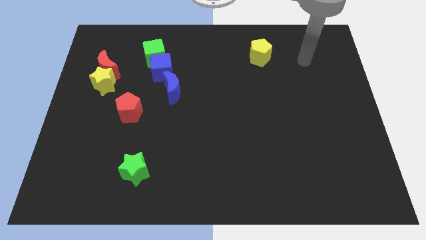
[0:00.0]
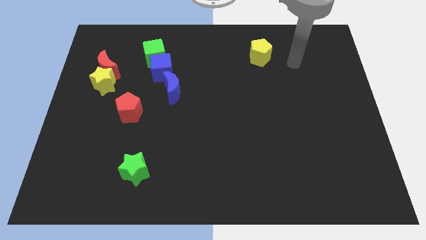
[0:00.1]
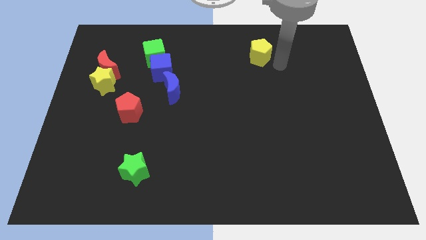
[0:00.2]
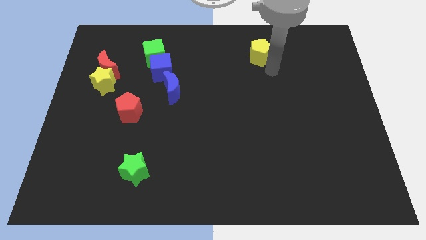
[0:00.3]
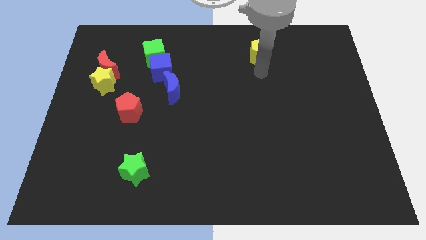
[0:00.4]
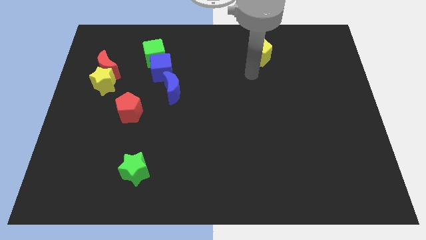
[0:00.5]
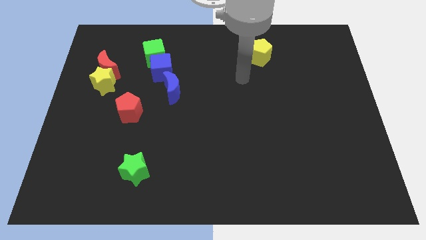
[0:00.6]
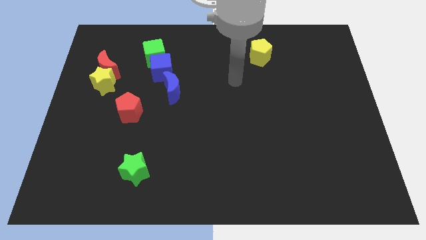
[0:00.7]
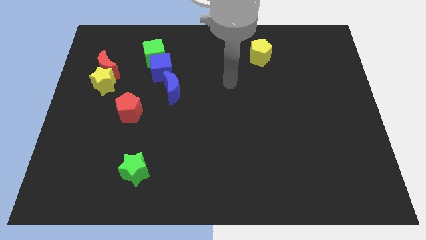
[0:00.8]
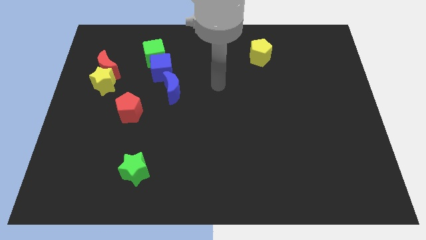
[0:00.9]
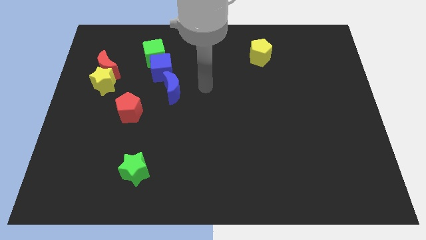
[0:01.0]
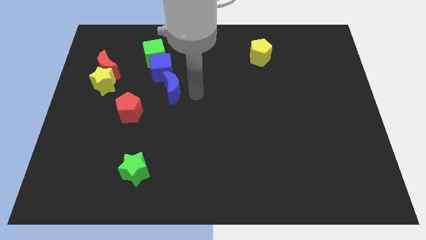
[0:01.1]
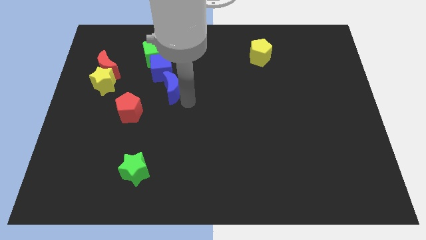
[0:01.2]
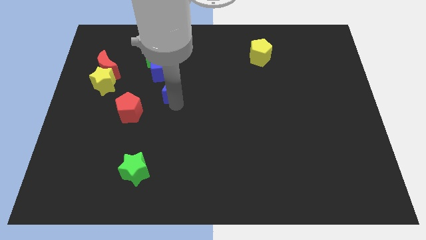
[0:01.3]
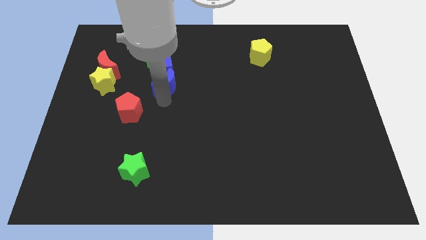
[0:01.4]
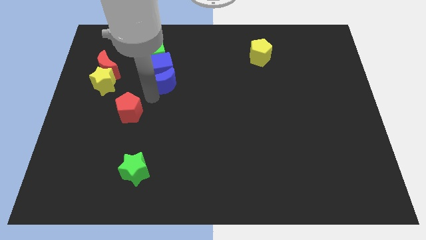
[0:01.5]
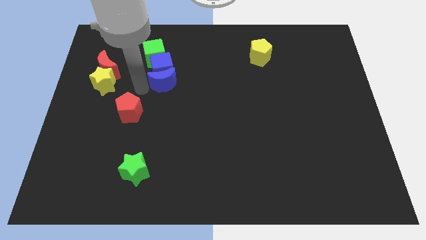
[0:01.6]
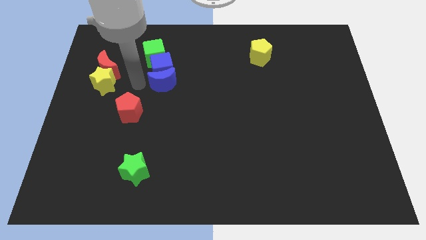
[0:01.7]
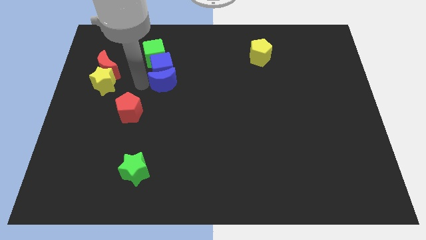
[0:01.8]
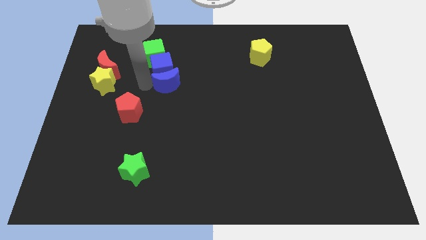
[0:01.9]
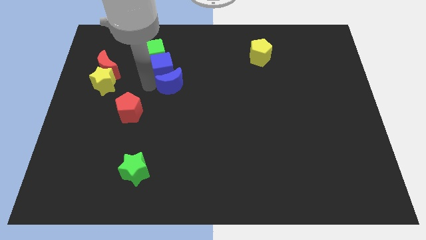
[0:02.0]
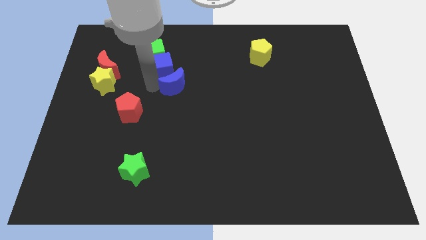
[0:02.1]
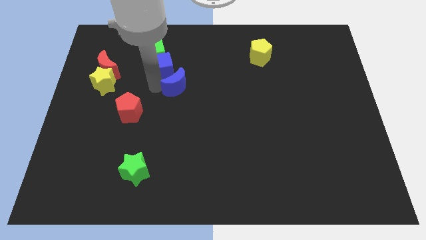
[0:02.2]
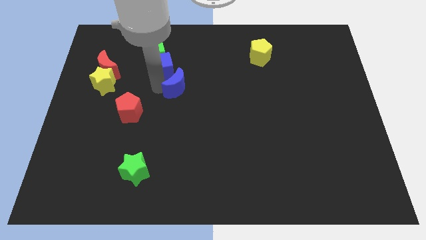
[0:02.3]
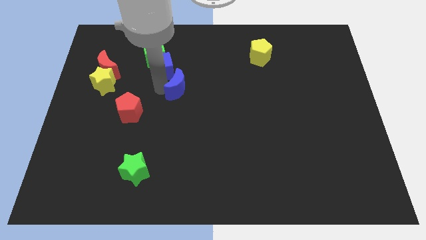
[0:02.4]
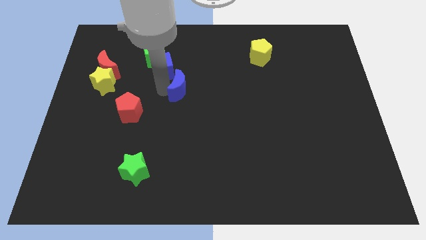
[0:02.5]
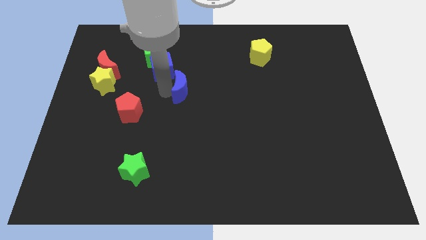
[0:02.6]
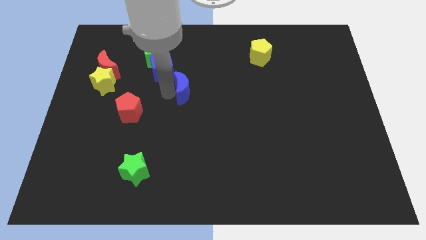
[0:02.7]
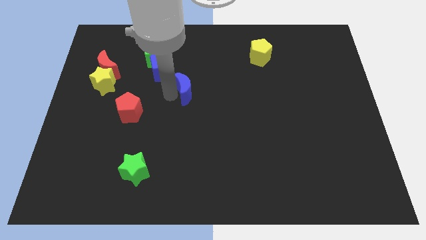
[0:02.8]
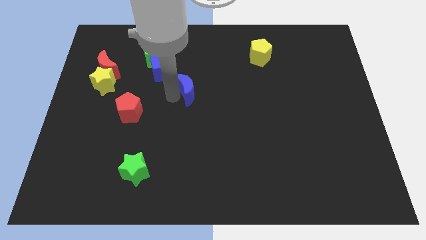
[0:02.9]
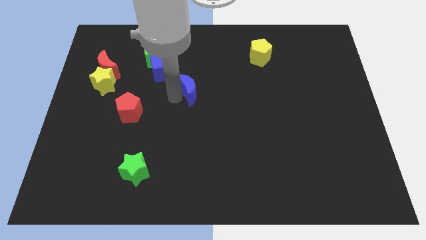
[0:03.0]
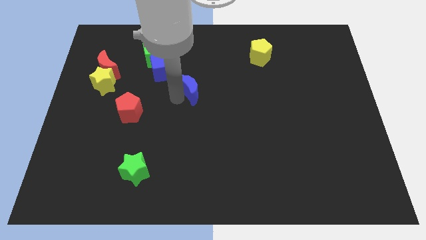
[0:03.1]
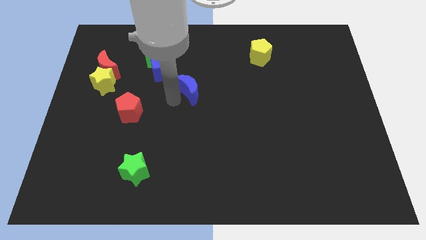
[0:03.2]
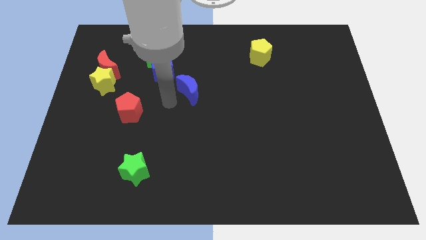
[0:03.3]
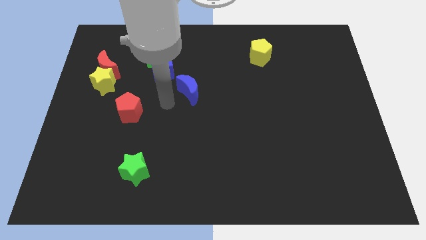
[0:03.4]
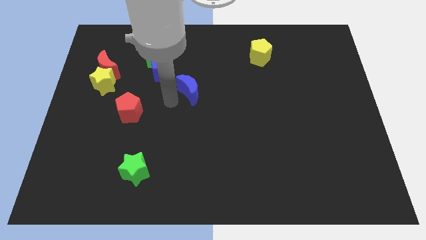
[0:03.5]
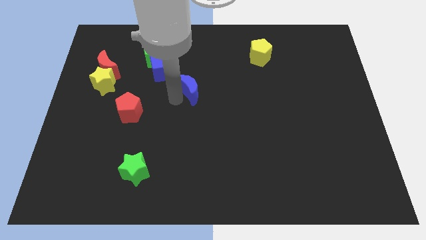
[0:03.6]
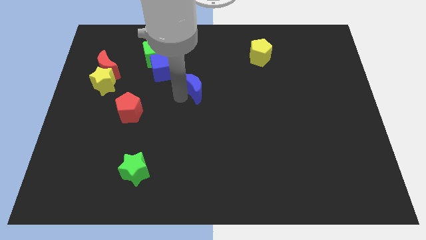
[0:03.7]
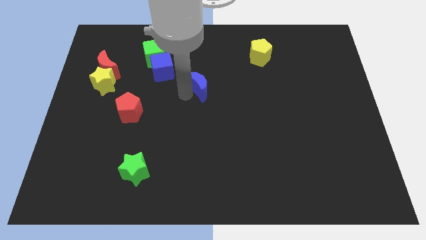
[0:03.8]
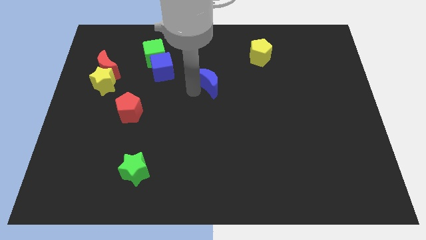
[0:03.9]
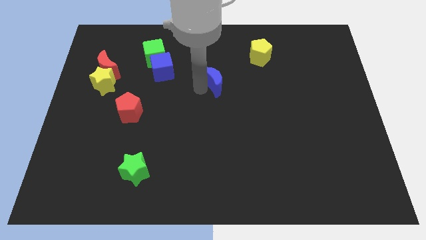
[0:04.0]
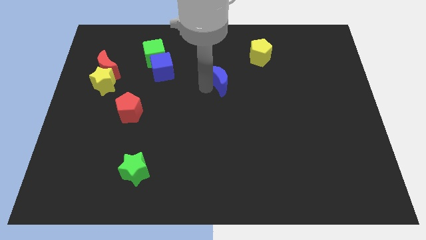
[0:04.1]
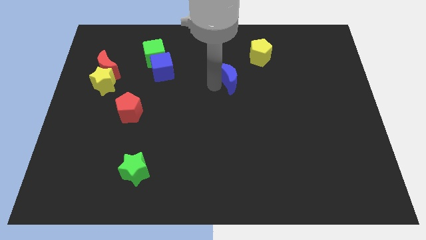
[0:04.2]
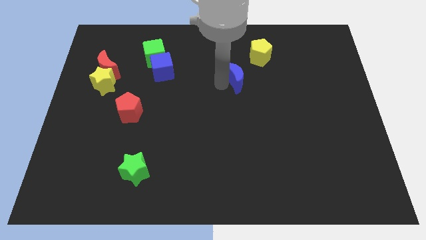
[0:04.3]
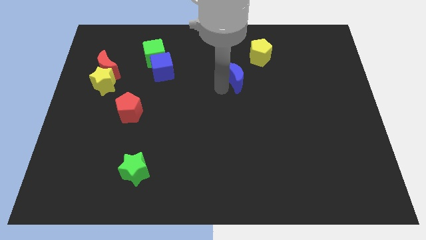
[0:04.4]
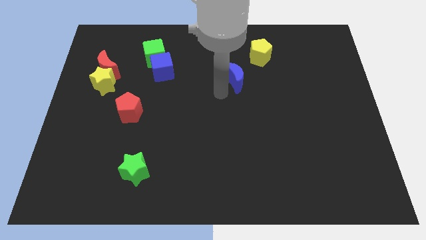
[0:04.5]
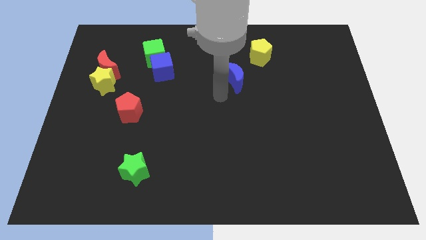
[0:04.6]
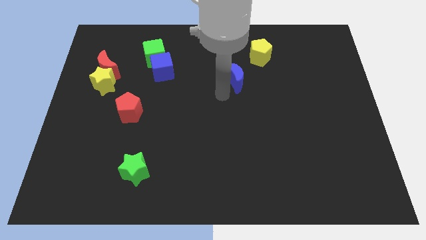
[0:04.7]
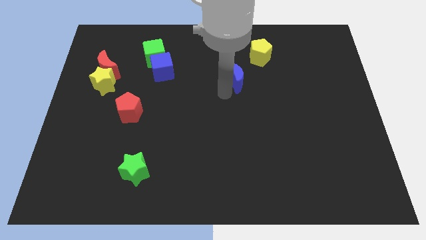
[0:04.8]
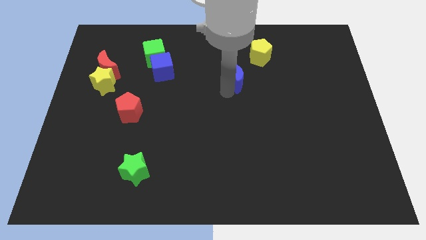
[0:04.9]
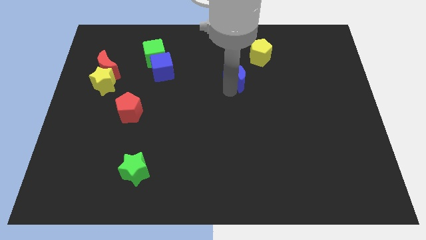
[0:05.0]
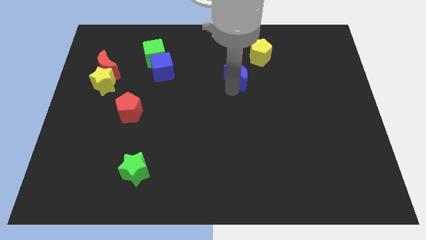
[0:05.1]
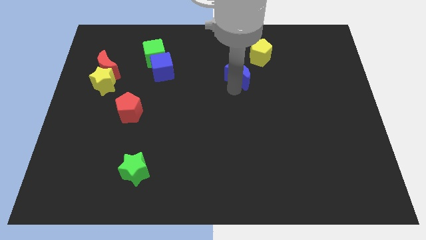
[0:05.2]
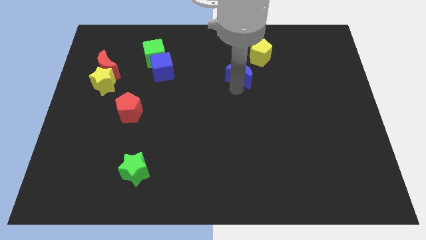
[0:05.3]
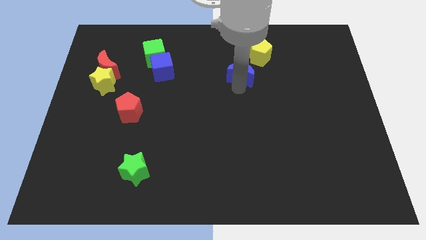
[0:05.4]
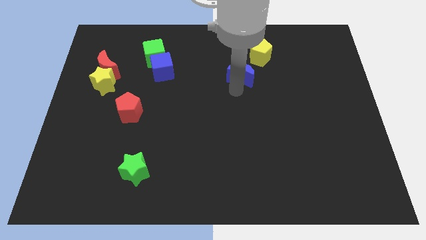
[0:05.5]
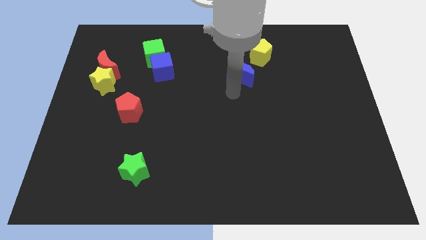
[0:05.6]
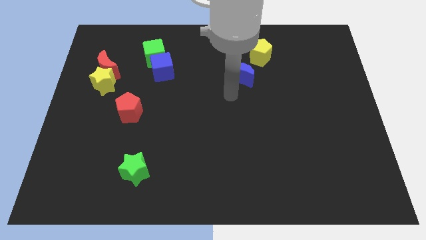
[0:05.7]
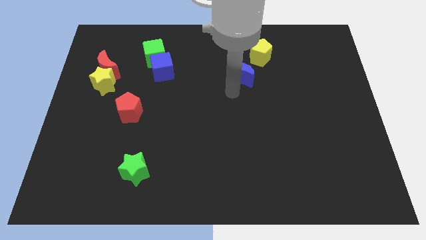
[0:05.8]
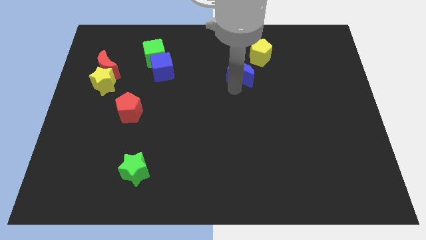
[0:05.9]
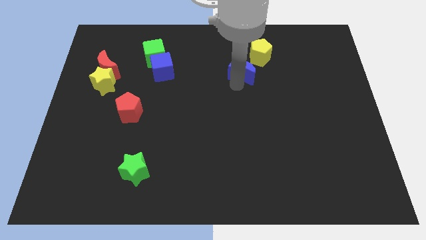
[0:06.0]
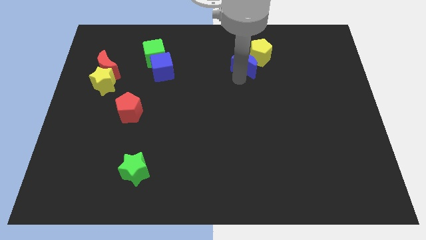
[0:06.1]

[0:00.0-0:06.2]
put the blue moon next to the yellow pentagon

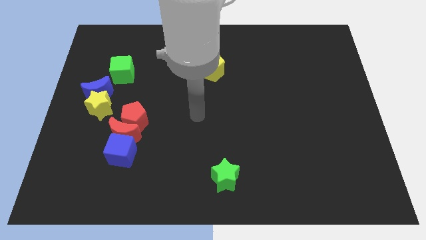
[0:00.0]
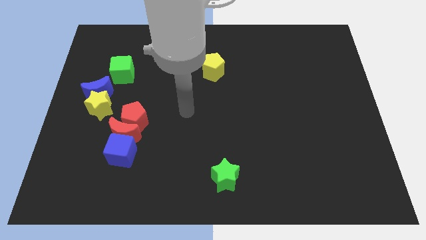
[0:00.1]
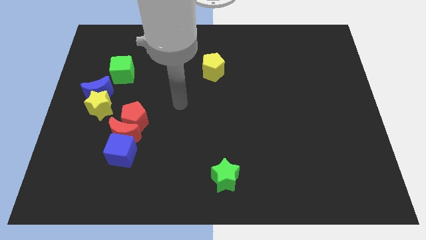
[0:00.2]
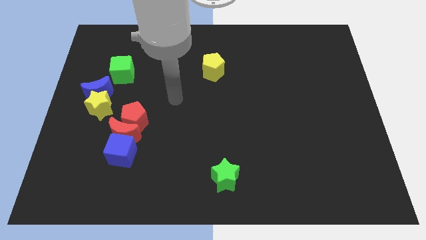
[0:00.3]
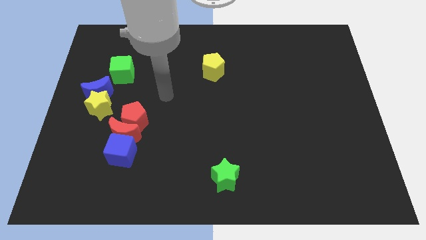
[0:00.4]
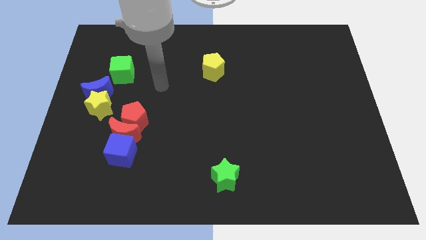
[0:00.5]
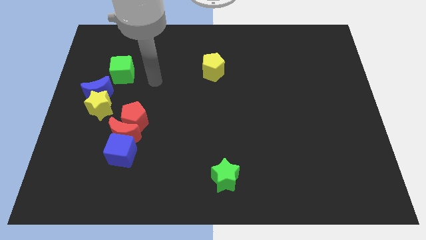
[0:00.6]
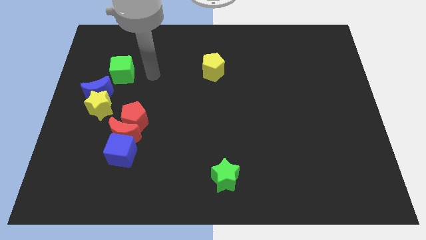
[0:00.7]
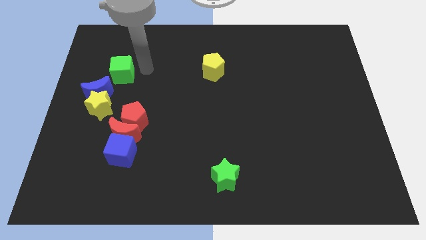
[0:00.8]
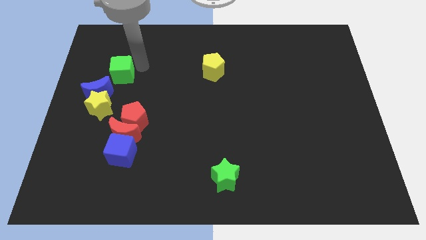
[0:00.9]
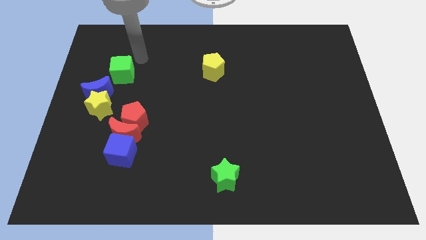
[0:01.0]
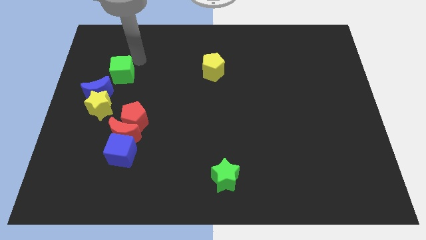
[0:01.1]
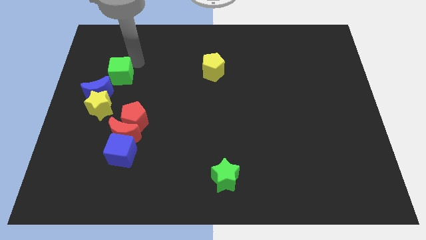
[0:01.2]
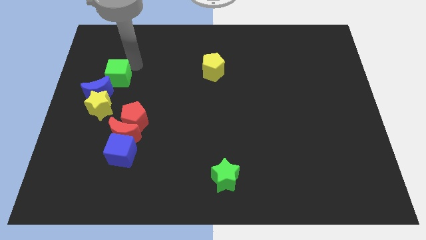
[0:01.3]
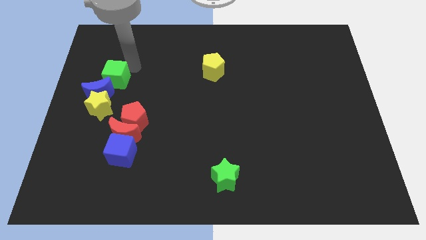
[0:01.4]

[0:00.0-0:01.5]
push the green cube next to the blue moon
